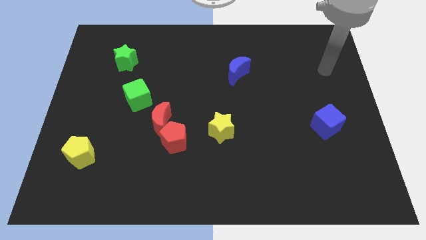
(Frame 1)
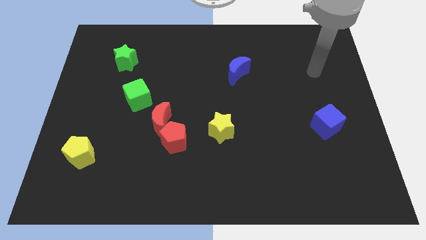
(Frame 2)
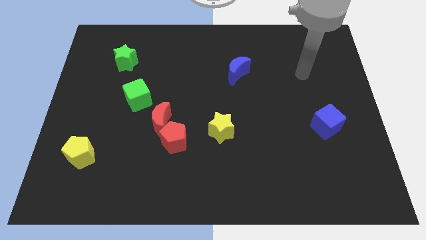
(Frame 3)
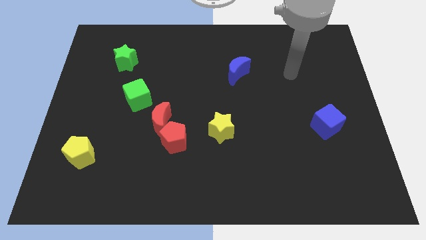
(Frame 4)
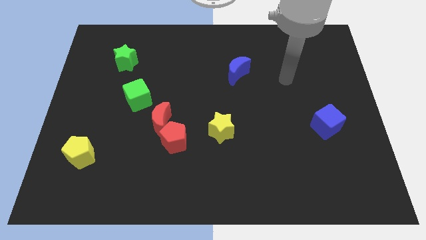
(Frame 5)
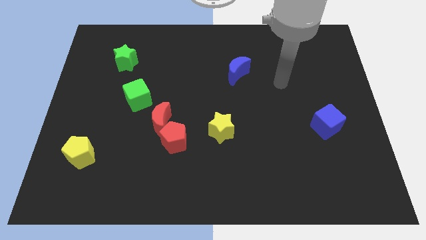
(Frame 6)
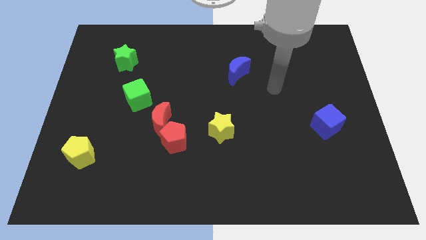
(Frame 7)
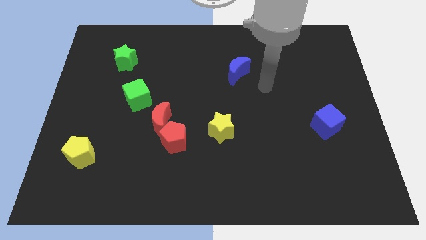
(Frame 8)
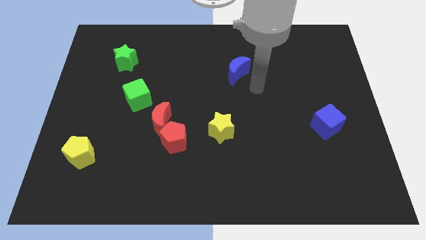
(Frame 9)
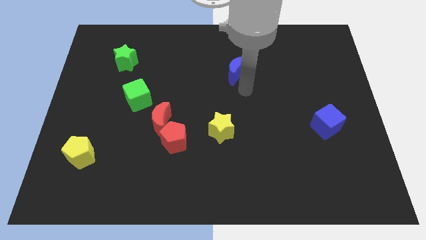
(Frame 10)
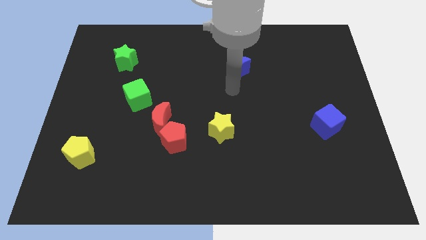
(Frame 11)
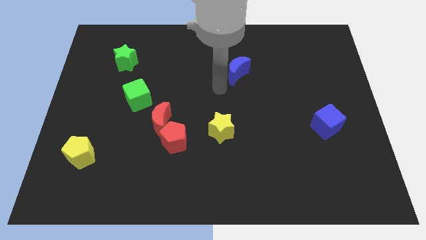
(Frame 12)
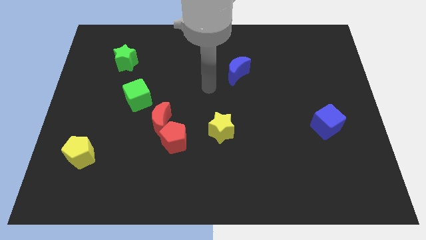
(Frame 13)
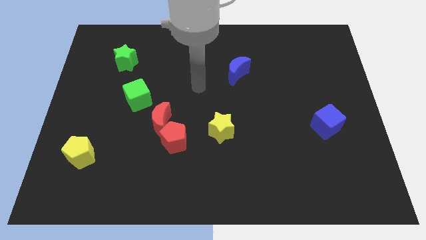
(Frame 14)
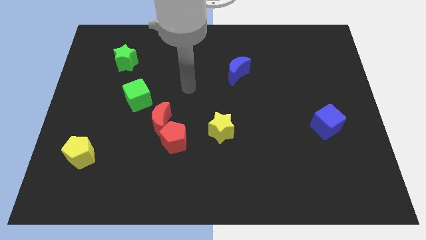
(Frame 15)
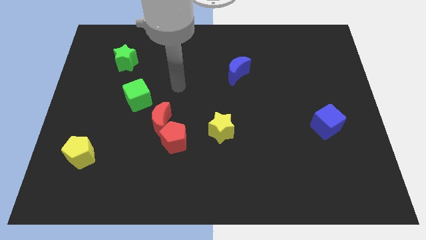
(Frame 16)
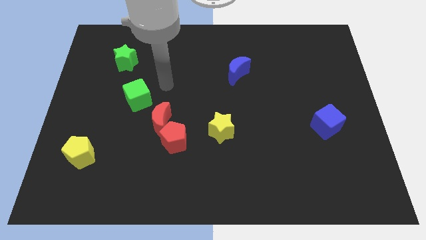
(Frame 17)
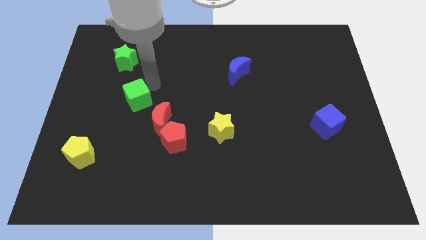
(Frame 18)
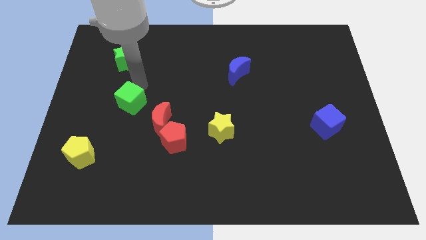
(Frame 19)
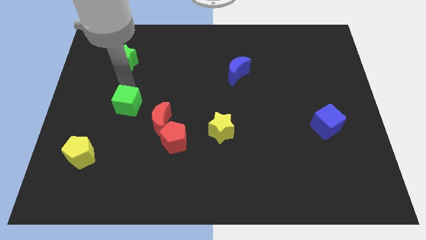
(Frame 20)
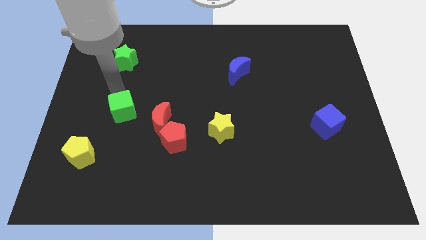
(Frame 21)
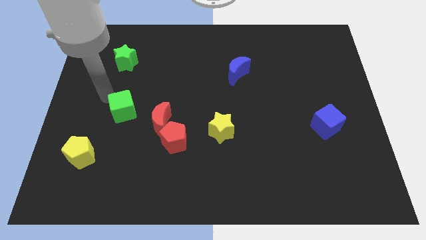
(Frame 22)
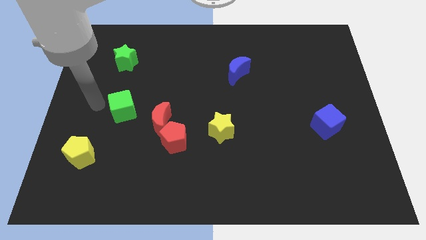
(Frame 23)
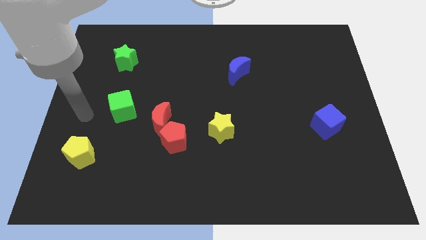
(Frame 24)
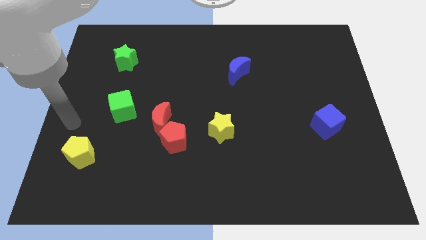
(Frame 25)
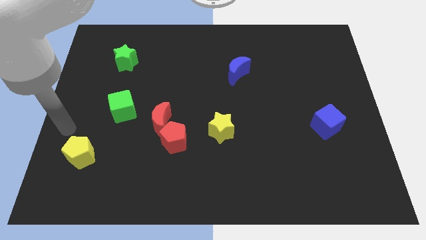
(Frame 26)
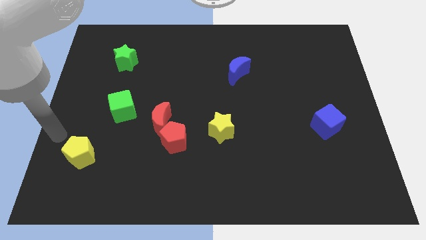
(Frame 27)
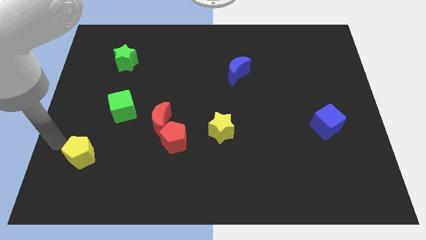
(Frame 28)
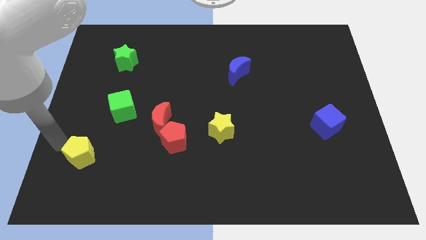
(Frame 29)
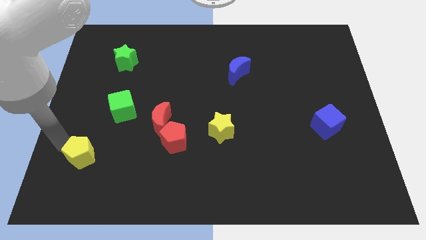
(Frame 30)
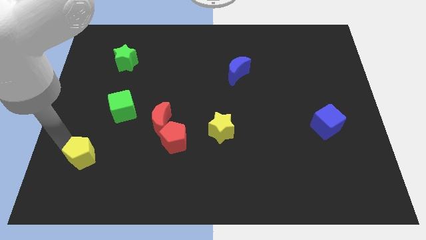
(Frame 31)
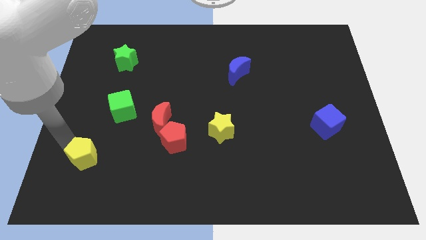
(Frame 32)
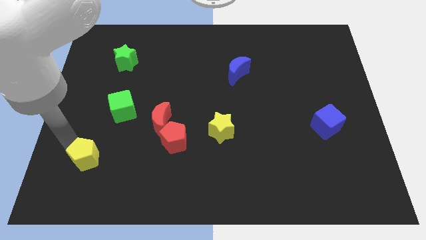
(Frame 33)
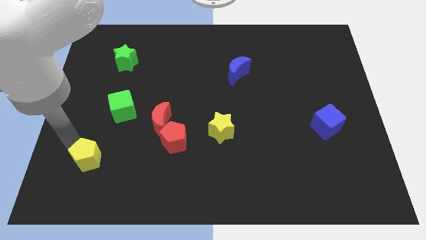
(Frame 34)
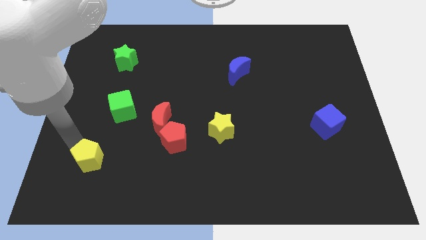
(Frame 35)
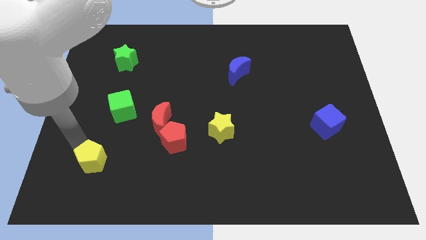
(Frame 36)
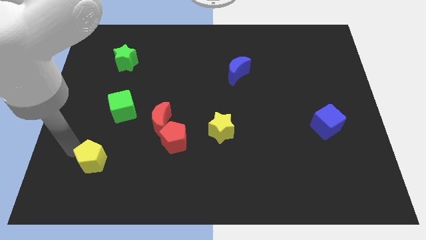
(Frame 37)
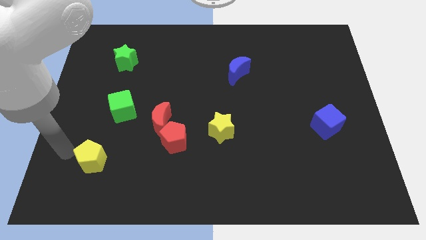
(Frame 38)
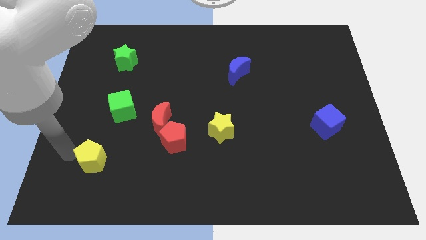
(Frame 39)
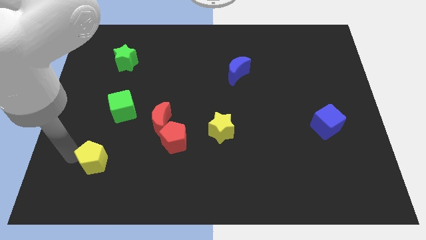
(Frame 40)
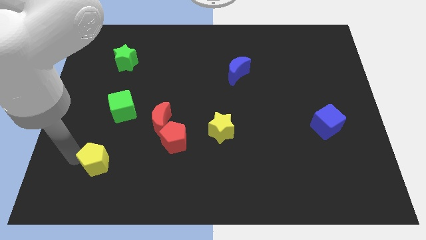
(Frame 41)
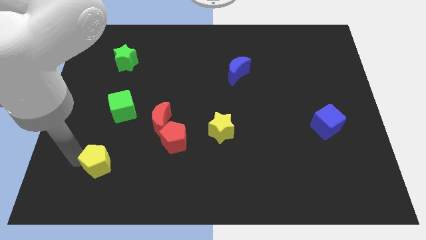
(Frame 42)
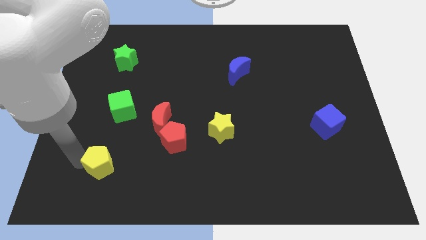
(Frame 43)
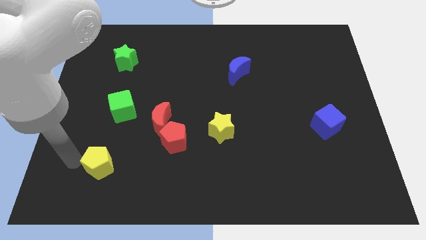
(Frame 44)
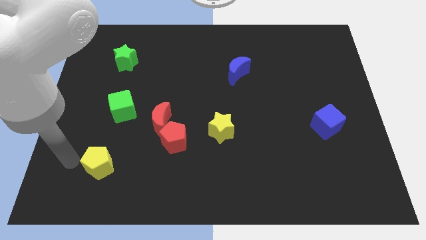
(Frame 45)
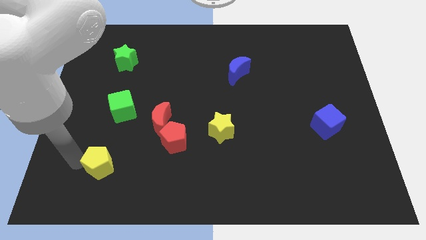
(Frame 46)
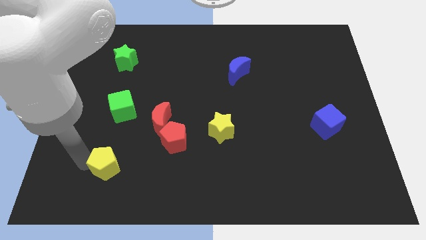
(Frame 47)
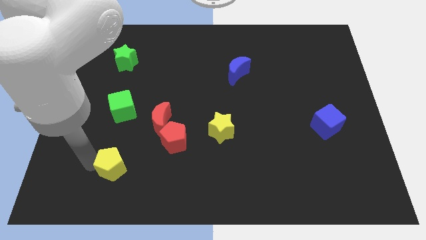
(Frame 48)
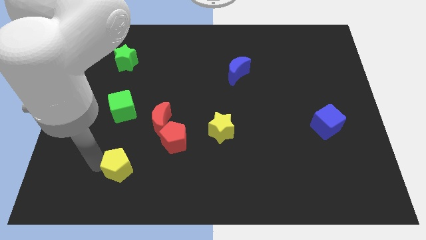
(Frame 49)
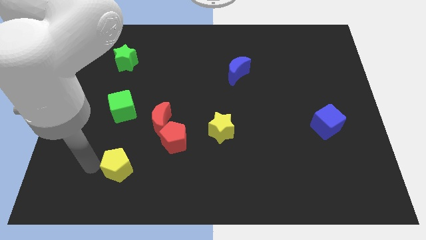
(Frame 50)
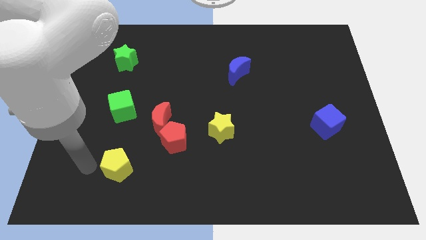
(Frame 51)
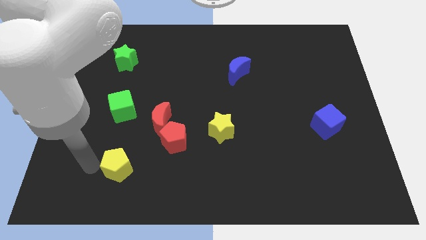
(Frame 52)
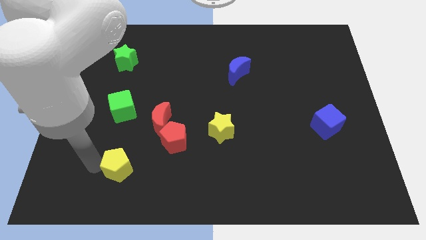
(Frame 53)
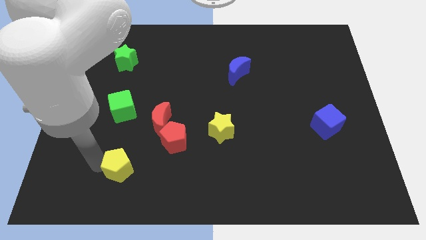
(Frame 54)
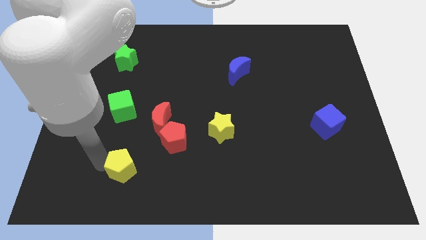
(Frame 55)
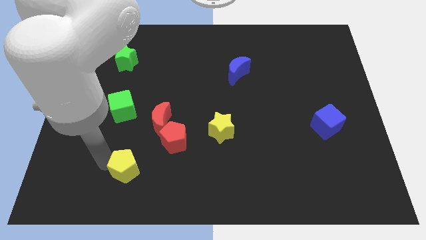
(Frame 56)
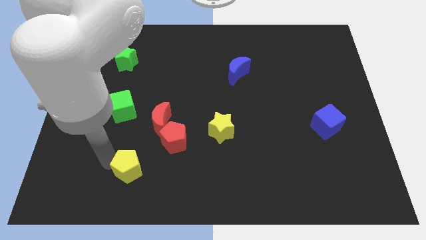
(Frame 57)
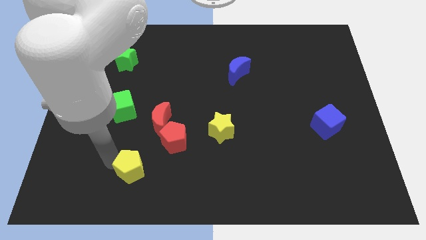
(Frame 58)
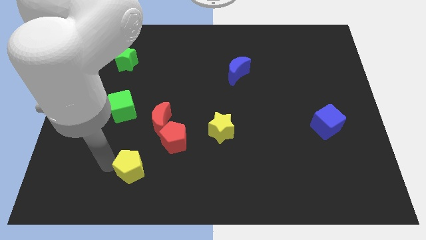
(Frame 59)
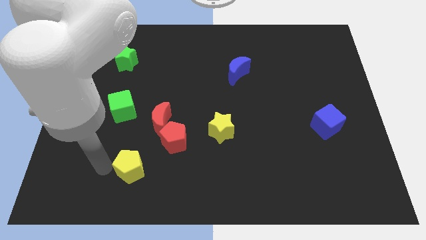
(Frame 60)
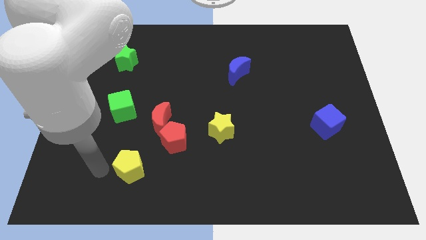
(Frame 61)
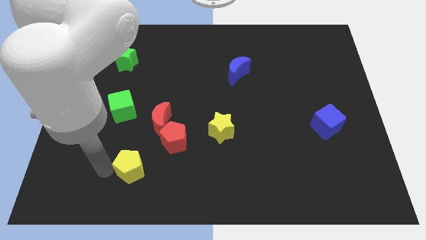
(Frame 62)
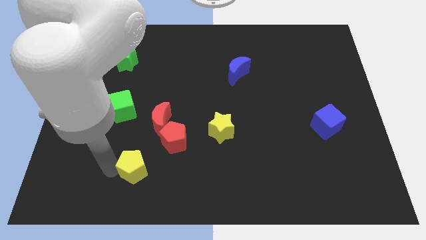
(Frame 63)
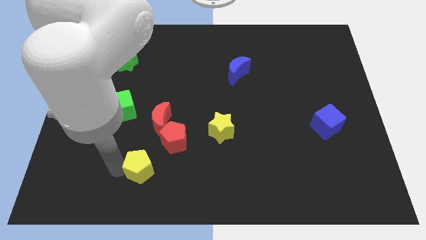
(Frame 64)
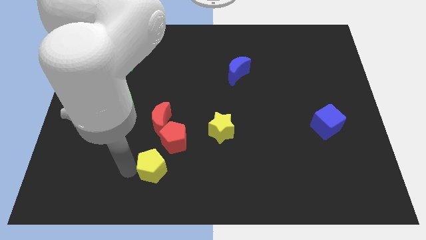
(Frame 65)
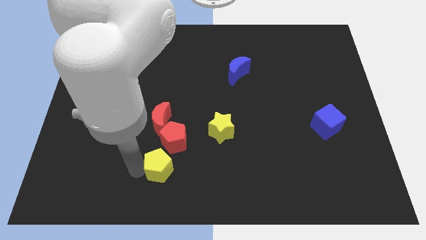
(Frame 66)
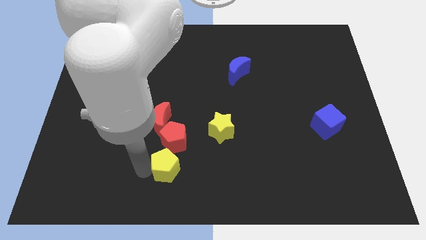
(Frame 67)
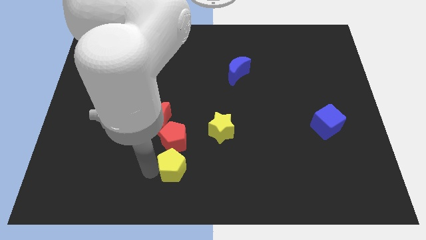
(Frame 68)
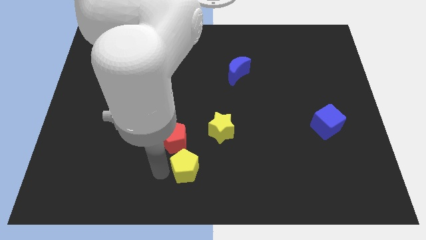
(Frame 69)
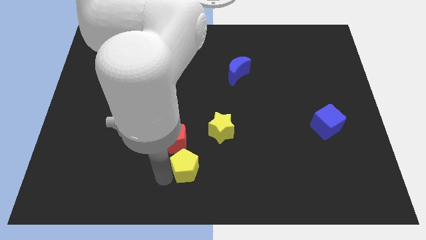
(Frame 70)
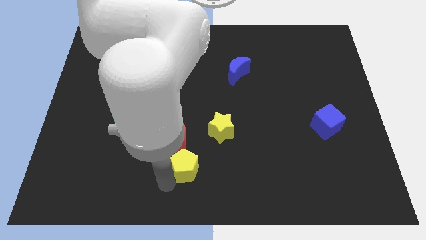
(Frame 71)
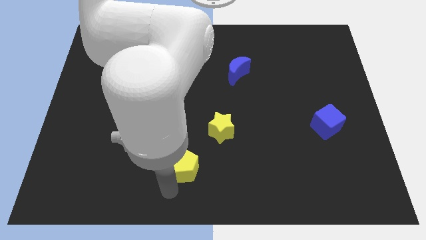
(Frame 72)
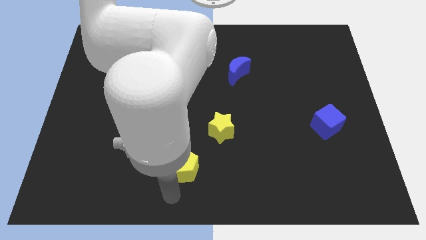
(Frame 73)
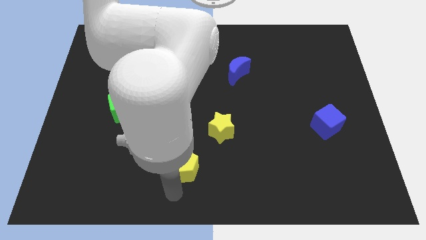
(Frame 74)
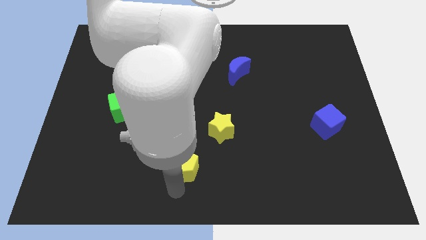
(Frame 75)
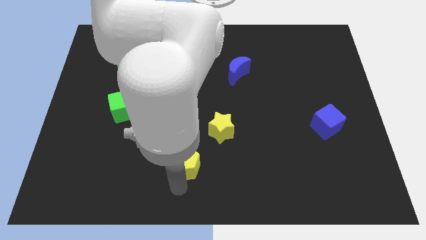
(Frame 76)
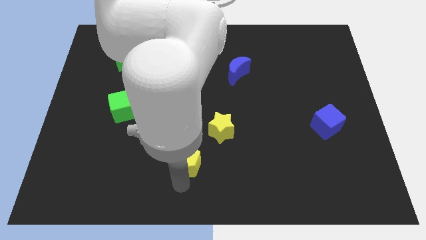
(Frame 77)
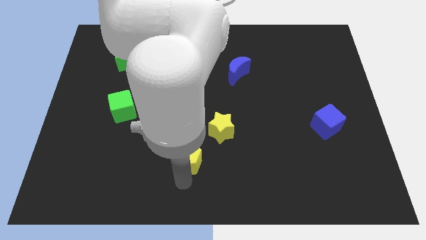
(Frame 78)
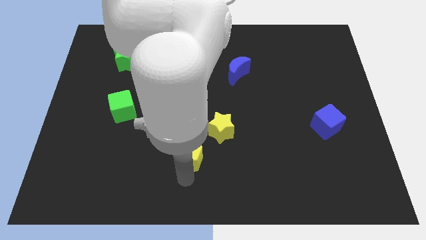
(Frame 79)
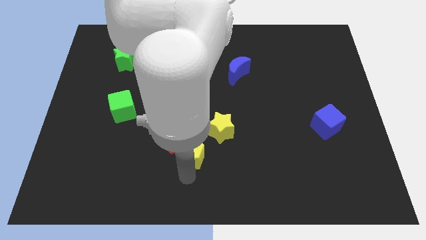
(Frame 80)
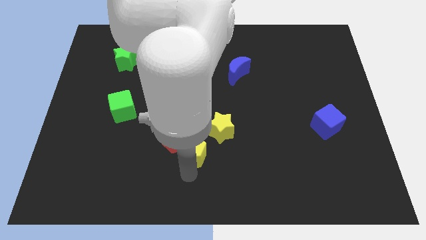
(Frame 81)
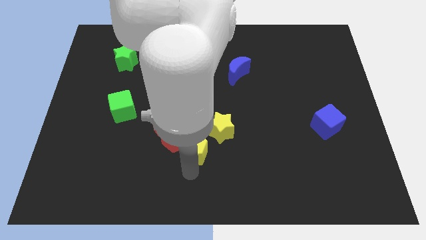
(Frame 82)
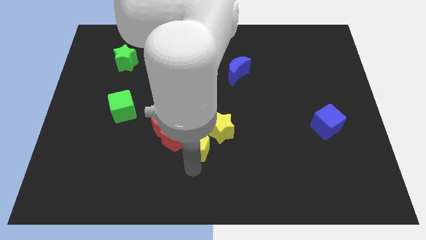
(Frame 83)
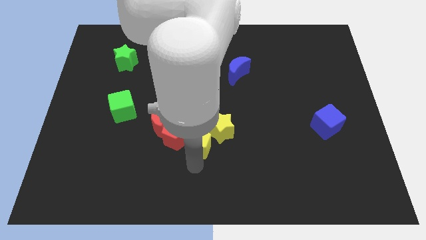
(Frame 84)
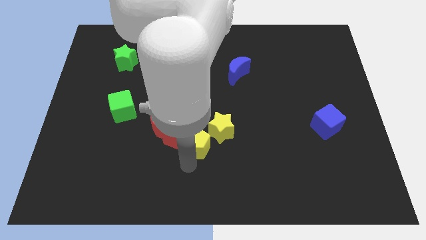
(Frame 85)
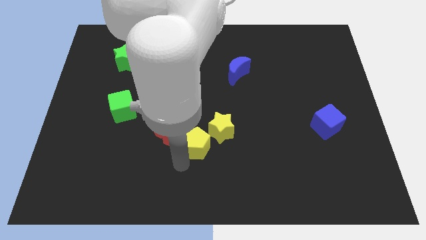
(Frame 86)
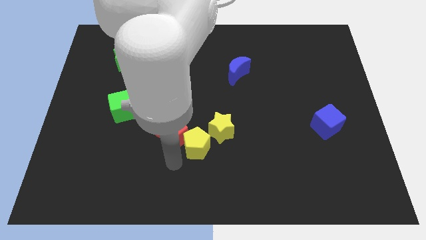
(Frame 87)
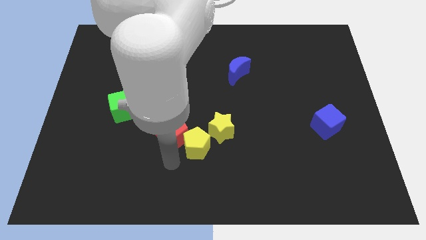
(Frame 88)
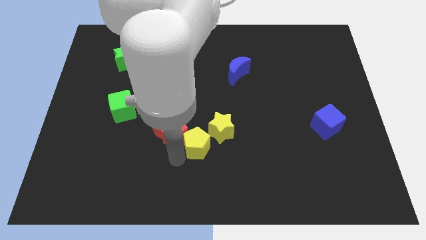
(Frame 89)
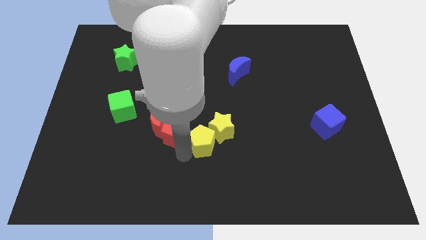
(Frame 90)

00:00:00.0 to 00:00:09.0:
put the yellow pentagon towards the yellow star
